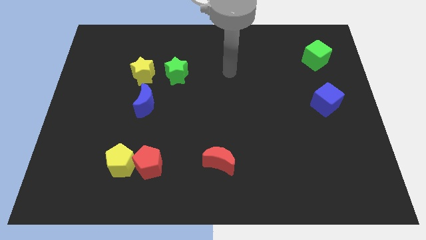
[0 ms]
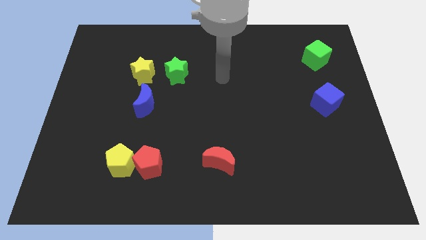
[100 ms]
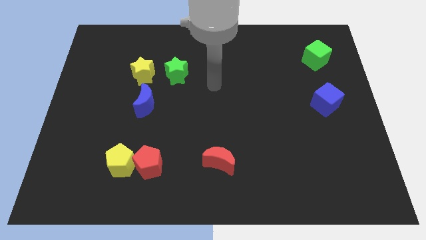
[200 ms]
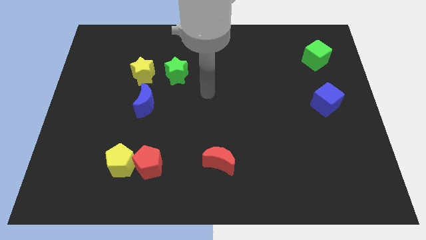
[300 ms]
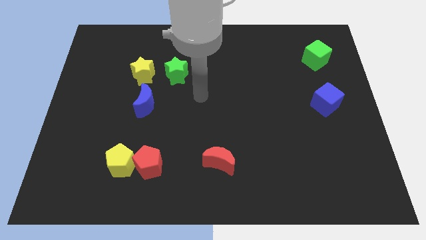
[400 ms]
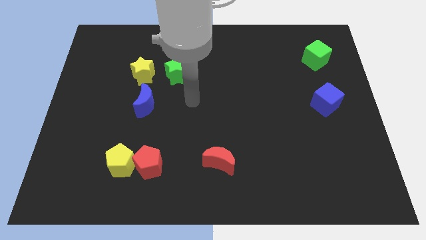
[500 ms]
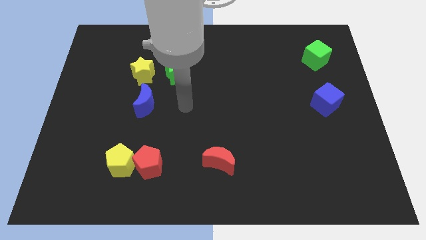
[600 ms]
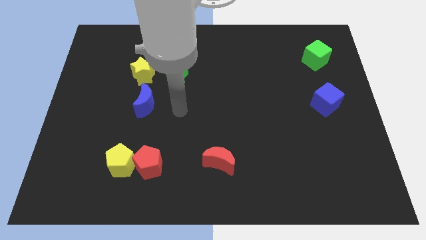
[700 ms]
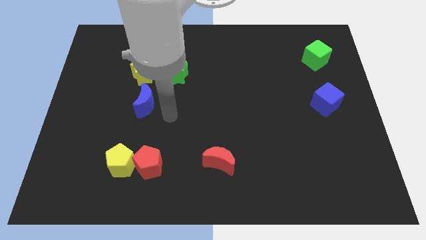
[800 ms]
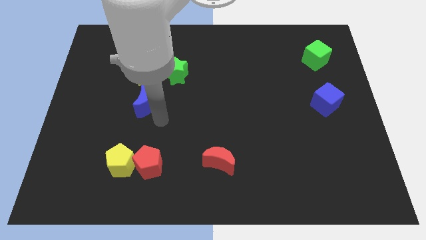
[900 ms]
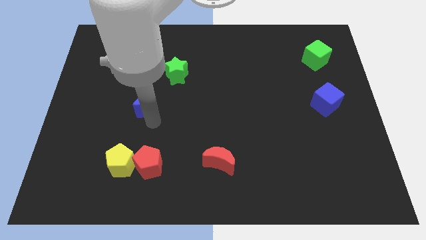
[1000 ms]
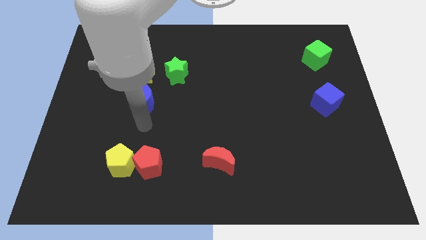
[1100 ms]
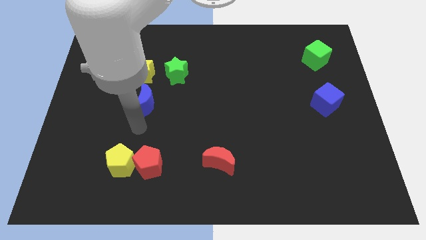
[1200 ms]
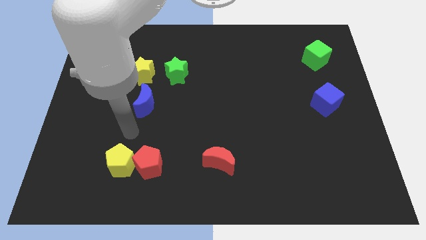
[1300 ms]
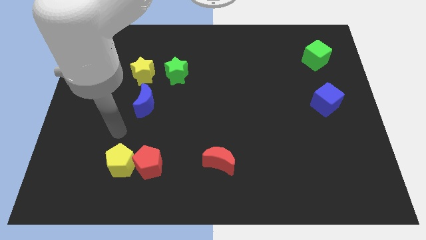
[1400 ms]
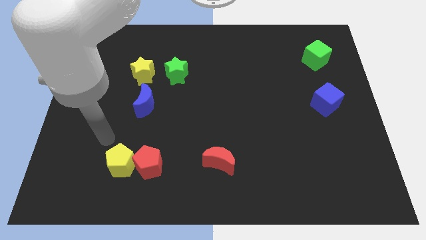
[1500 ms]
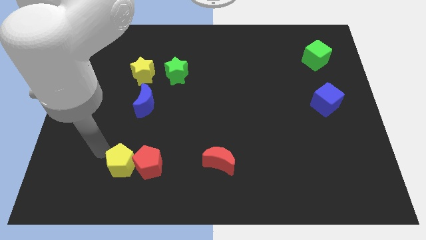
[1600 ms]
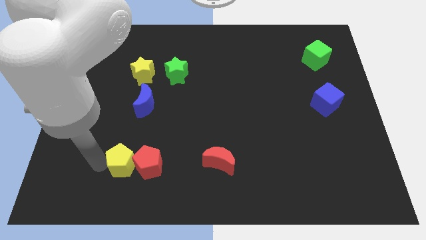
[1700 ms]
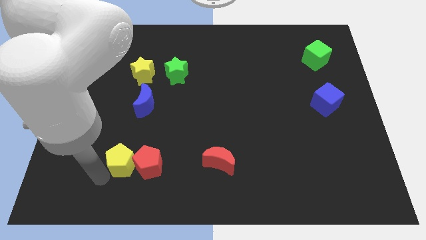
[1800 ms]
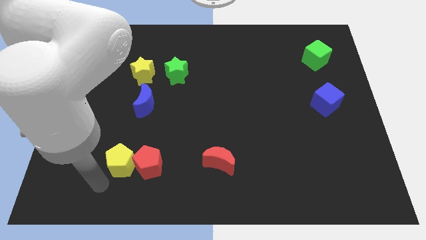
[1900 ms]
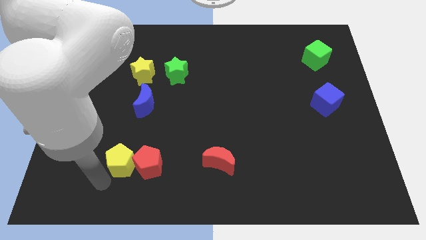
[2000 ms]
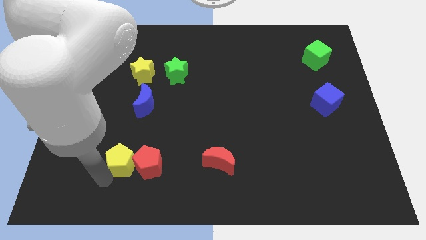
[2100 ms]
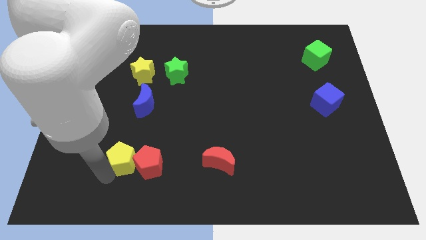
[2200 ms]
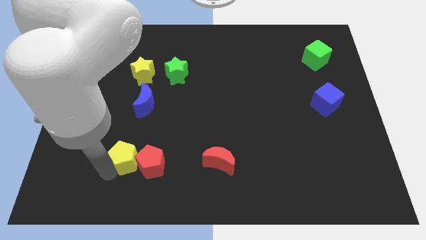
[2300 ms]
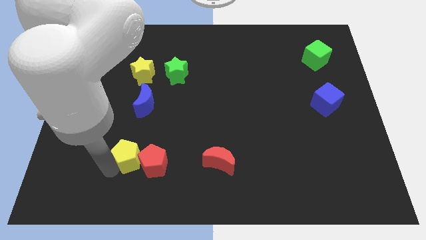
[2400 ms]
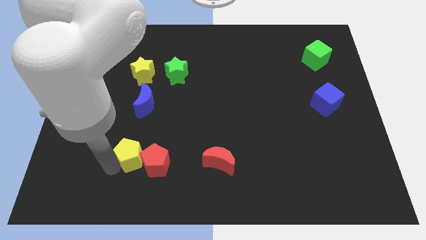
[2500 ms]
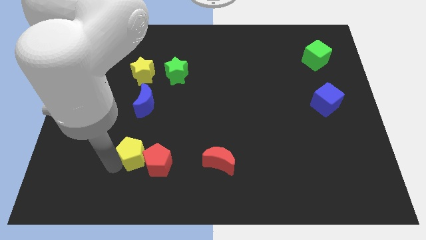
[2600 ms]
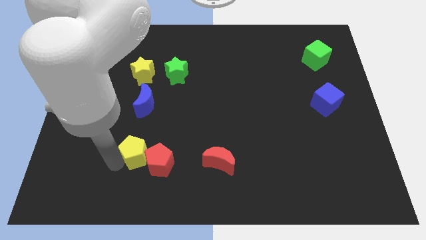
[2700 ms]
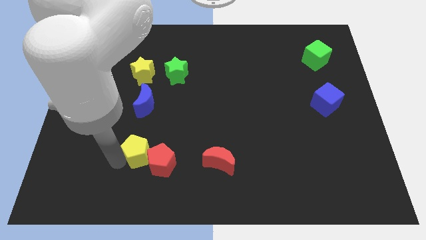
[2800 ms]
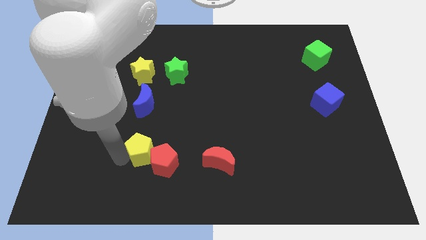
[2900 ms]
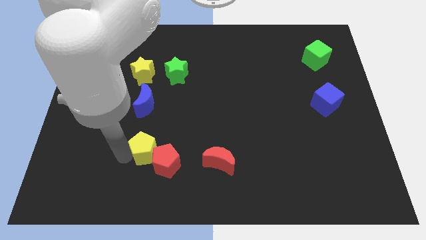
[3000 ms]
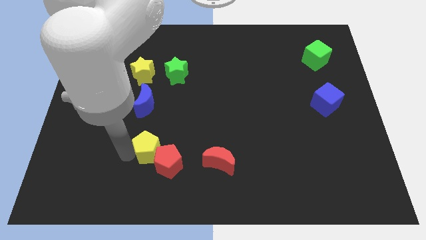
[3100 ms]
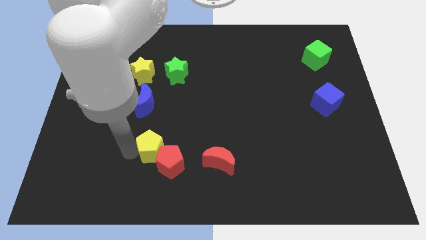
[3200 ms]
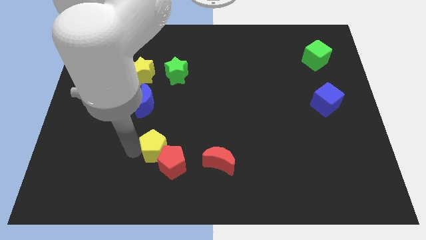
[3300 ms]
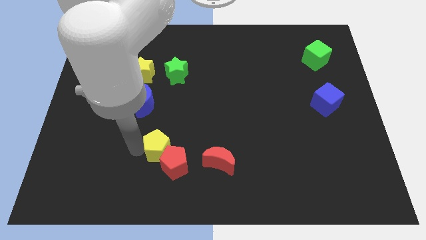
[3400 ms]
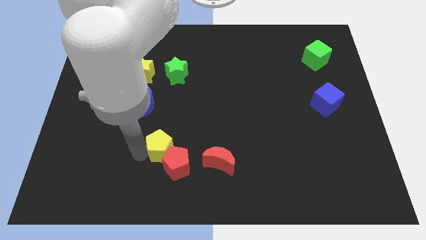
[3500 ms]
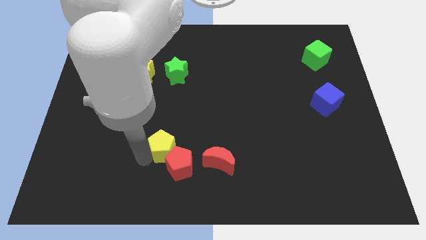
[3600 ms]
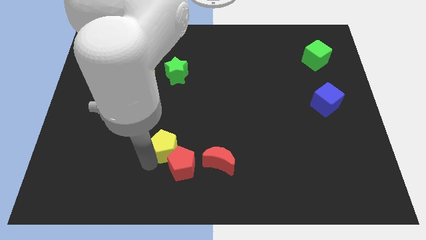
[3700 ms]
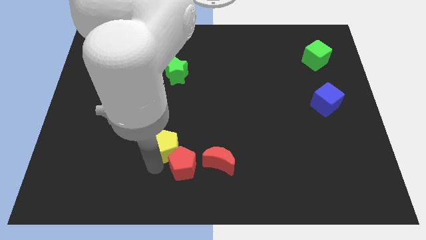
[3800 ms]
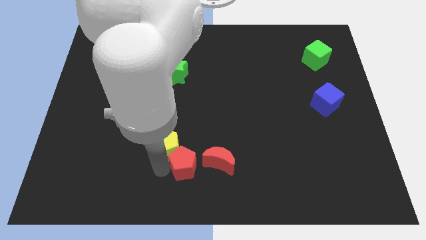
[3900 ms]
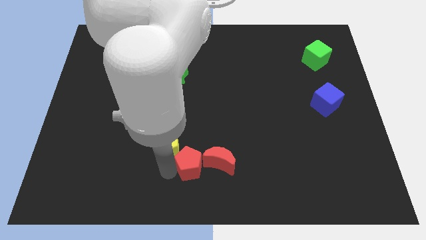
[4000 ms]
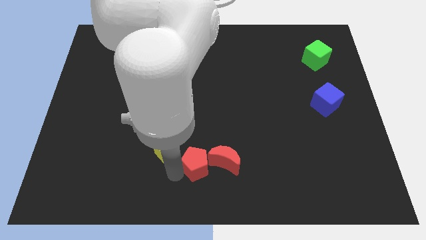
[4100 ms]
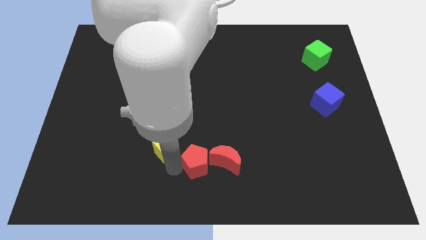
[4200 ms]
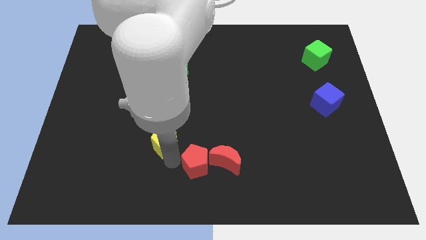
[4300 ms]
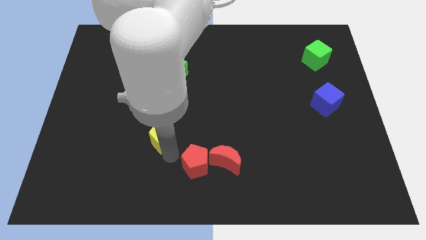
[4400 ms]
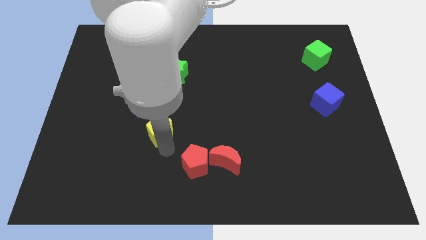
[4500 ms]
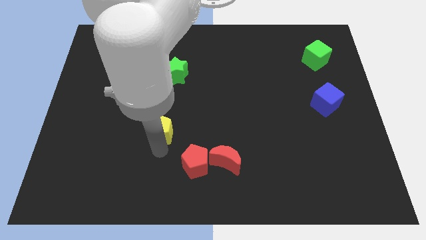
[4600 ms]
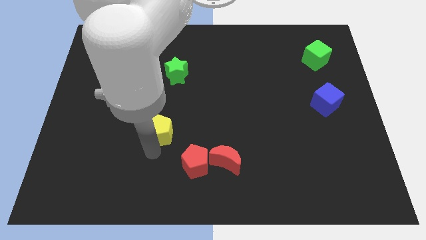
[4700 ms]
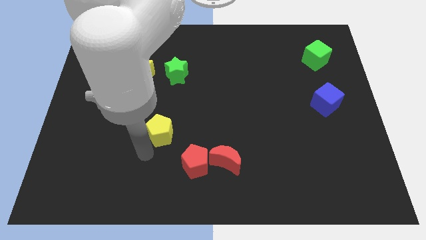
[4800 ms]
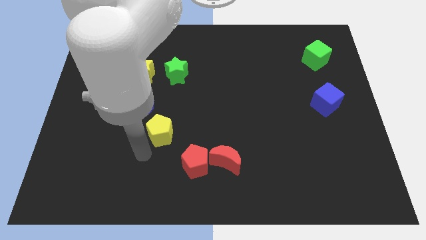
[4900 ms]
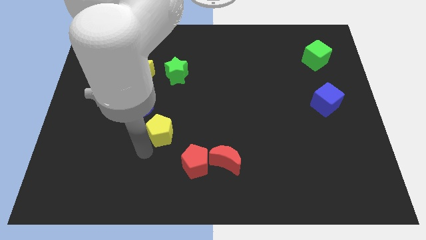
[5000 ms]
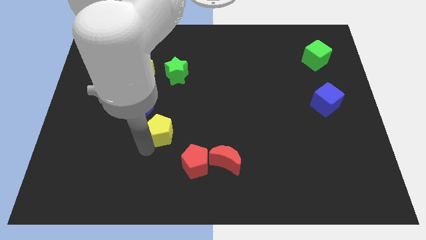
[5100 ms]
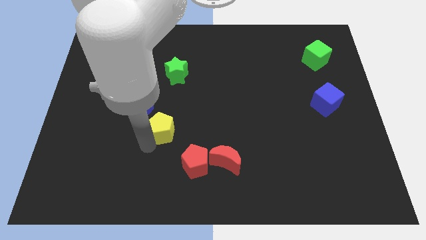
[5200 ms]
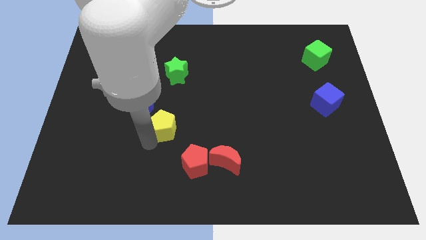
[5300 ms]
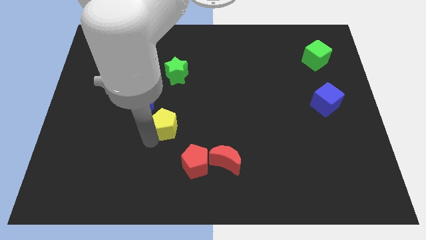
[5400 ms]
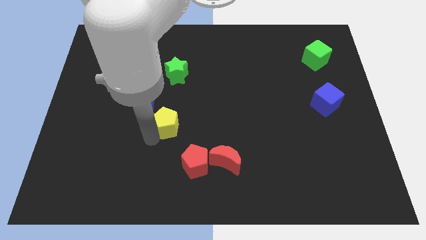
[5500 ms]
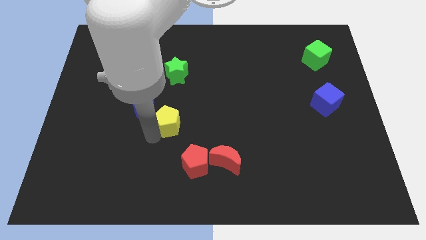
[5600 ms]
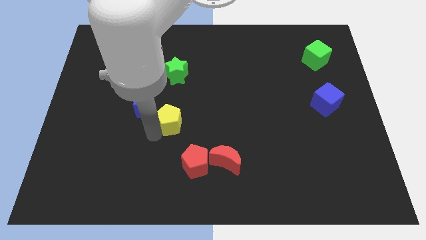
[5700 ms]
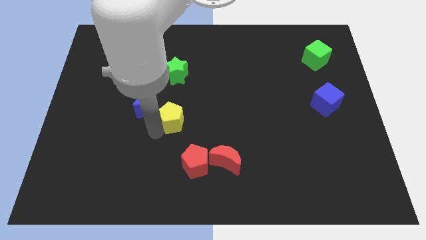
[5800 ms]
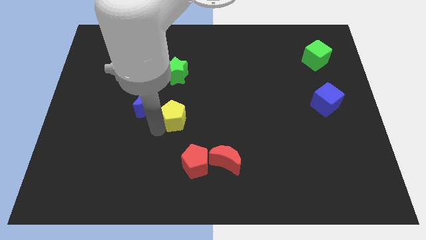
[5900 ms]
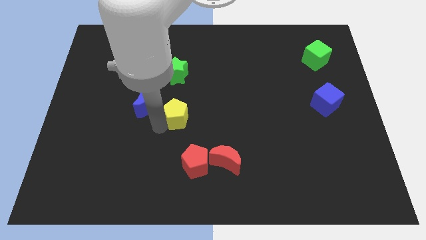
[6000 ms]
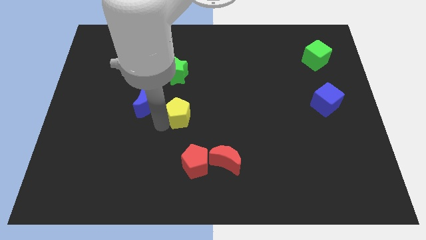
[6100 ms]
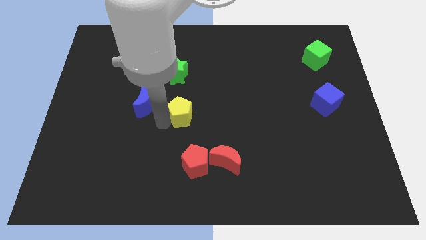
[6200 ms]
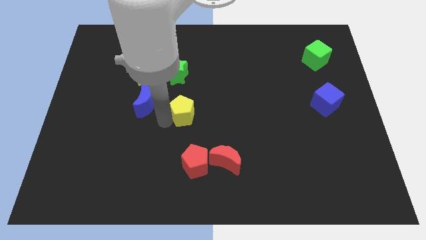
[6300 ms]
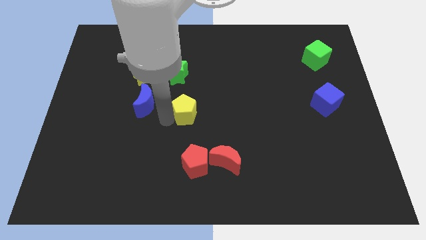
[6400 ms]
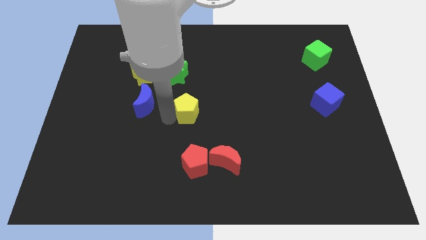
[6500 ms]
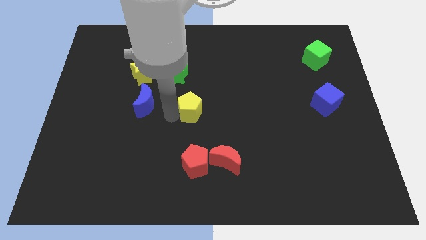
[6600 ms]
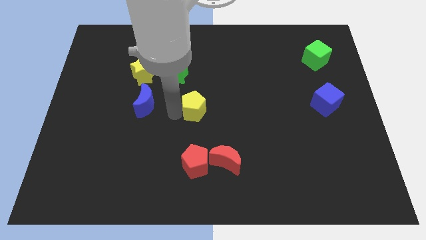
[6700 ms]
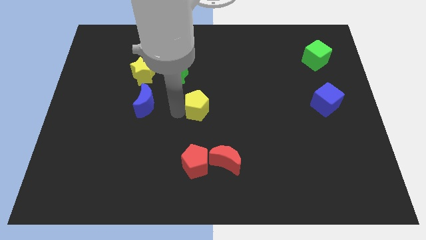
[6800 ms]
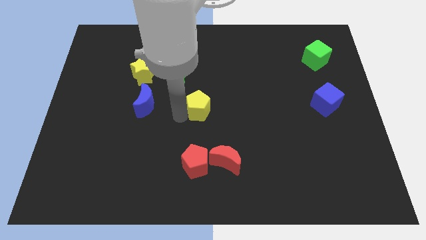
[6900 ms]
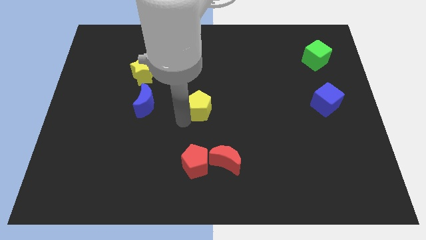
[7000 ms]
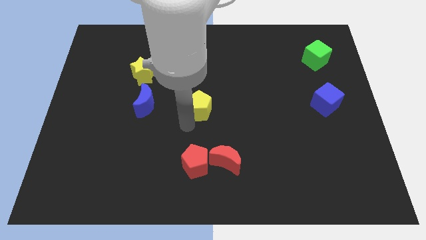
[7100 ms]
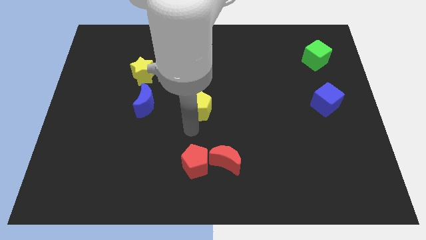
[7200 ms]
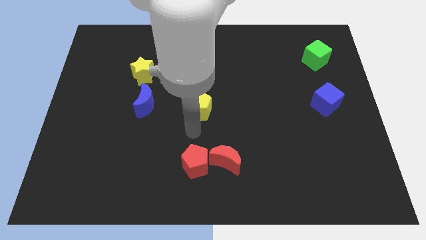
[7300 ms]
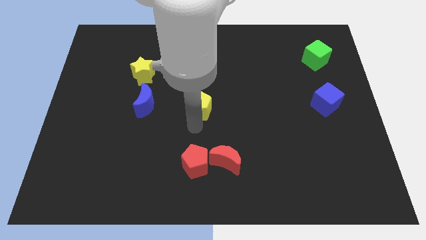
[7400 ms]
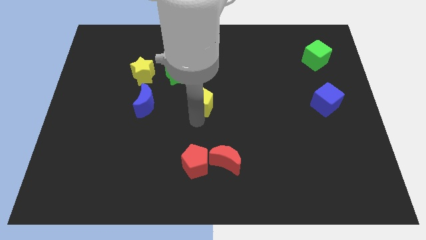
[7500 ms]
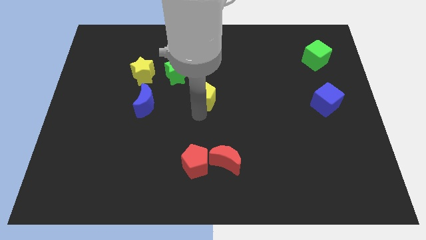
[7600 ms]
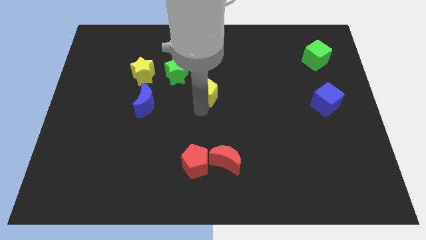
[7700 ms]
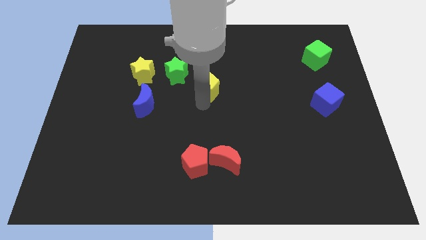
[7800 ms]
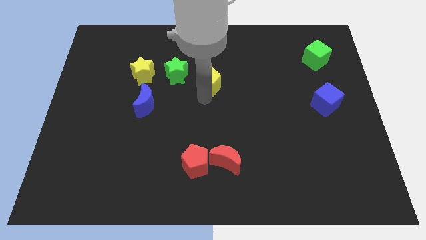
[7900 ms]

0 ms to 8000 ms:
push the yellow pentagon to the right side of the green star

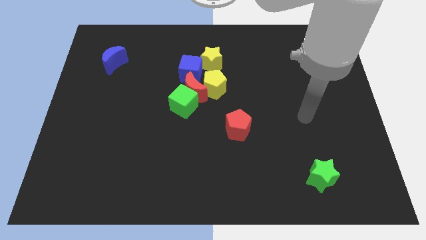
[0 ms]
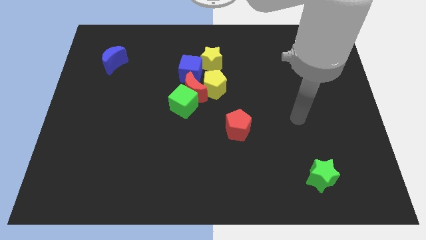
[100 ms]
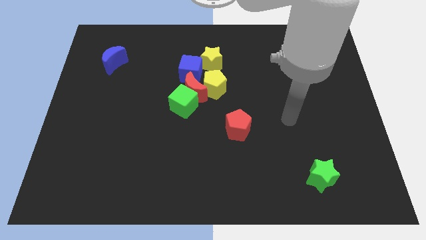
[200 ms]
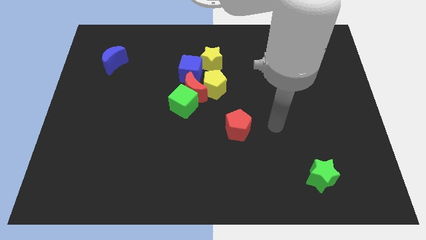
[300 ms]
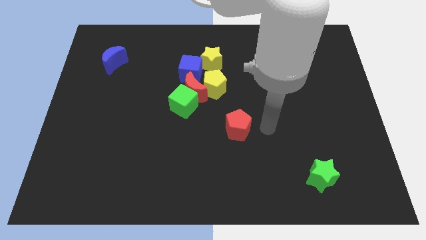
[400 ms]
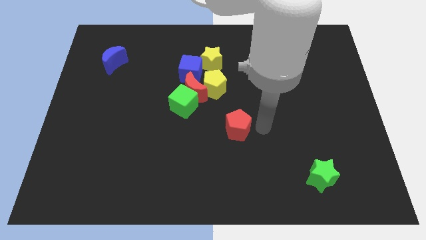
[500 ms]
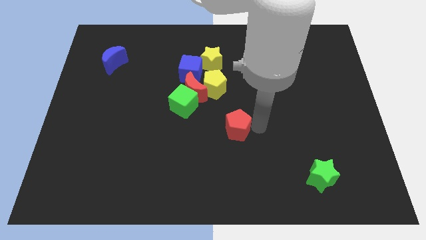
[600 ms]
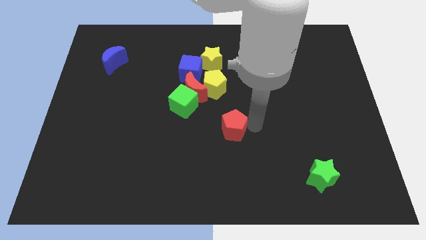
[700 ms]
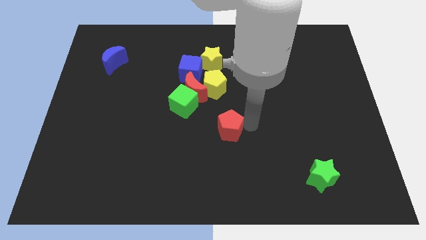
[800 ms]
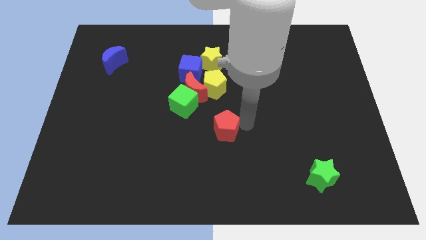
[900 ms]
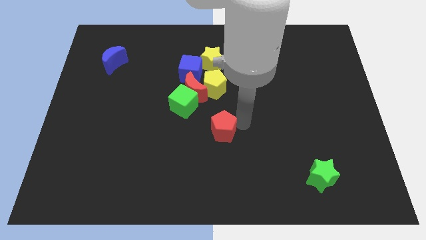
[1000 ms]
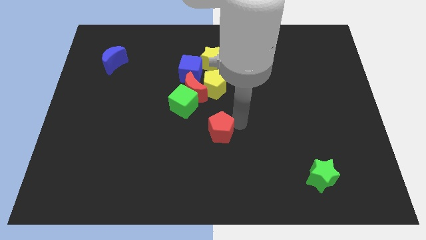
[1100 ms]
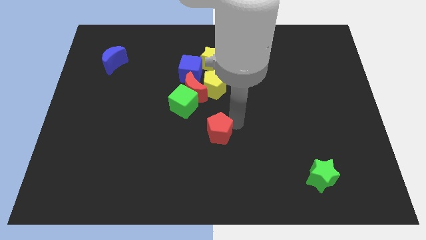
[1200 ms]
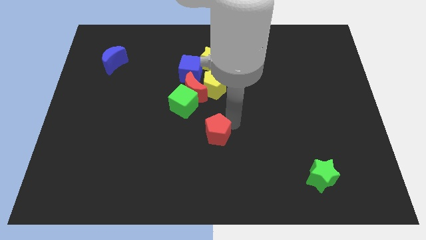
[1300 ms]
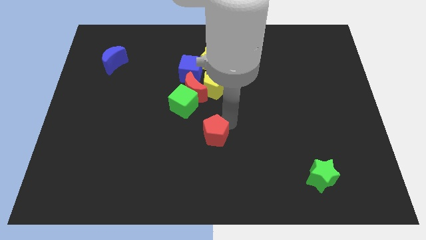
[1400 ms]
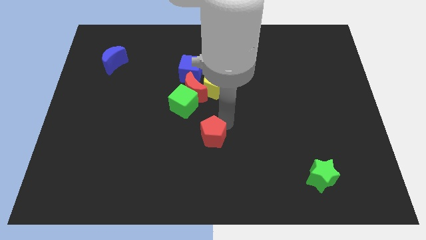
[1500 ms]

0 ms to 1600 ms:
push the red pentagon to the bottom of the red moon
